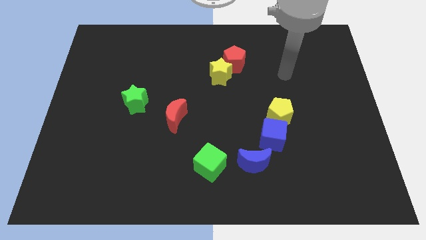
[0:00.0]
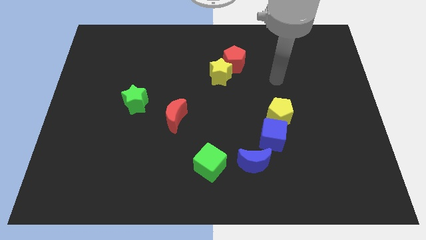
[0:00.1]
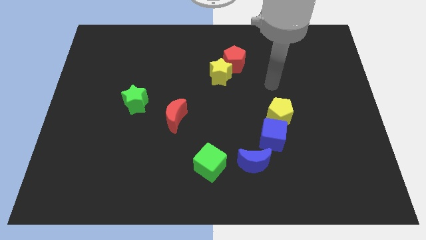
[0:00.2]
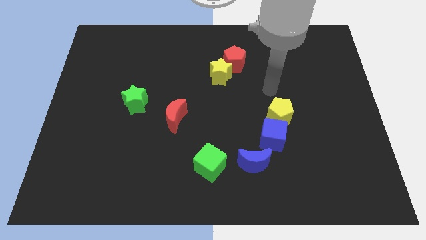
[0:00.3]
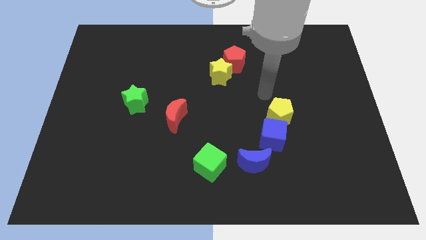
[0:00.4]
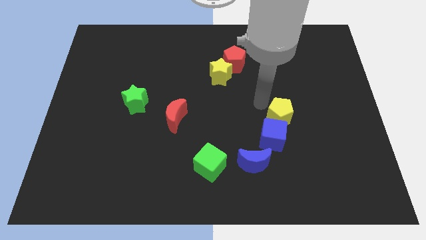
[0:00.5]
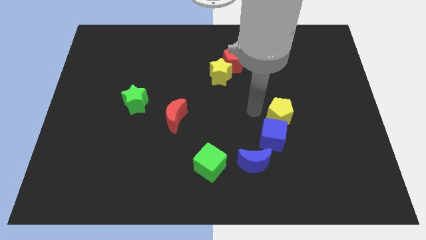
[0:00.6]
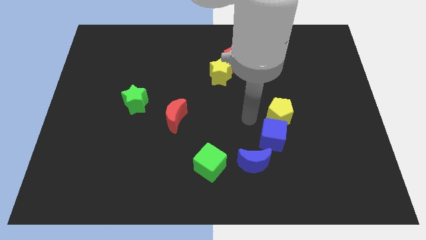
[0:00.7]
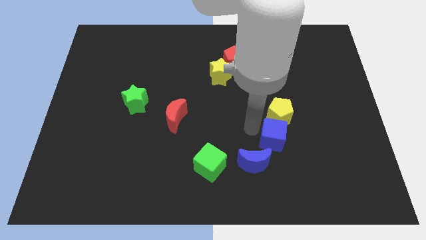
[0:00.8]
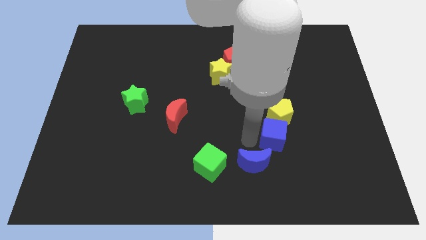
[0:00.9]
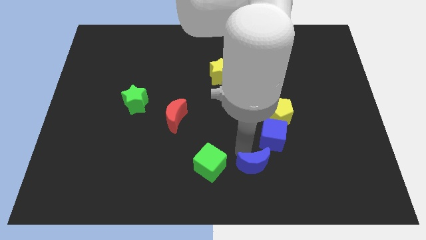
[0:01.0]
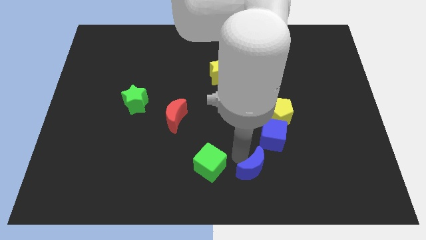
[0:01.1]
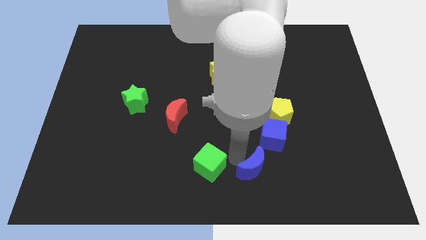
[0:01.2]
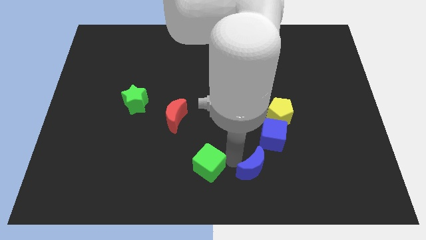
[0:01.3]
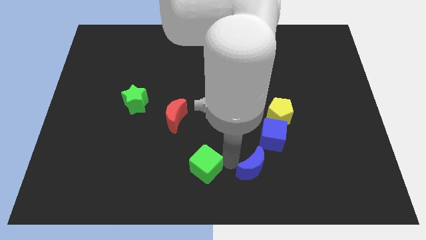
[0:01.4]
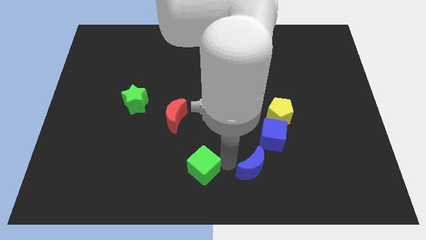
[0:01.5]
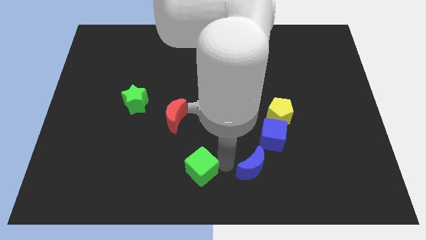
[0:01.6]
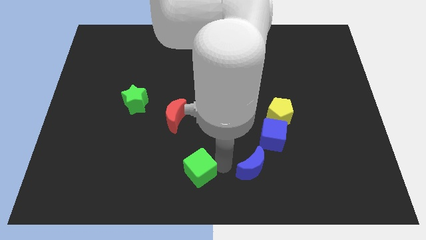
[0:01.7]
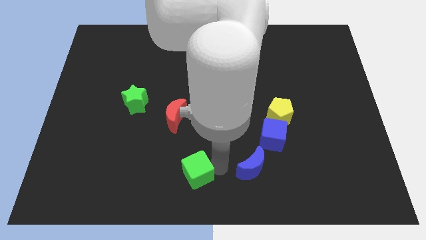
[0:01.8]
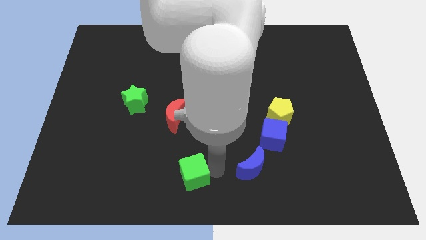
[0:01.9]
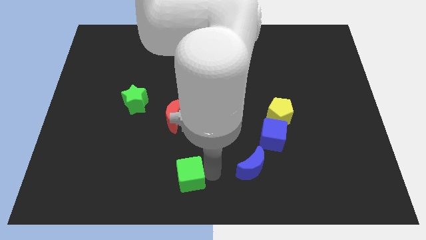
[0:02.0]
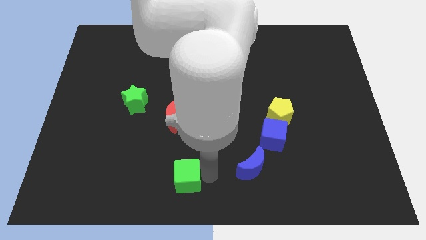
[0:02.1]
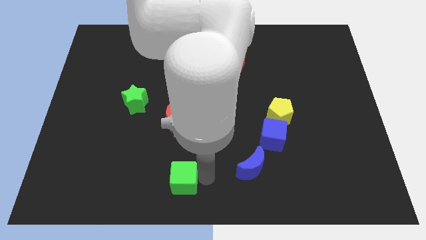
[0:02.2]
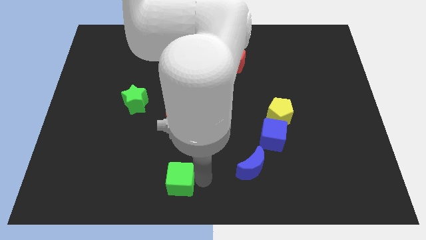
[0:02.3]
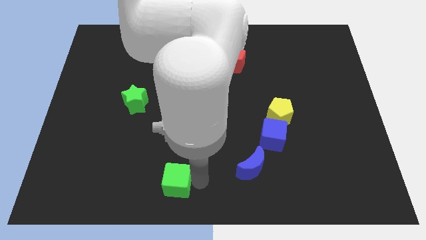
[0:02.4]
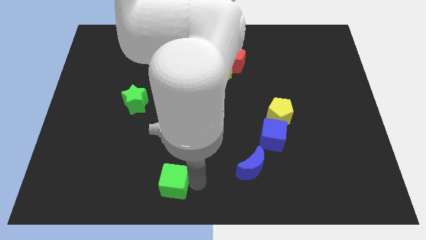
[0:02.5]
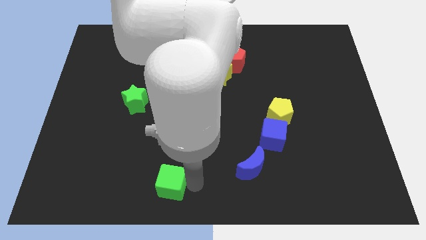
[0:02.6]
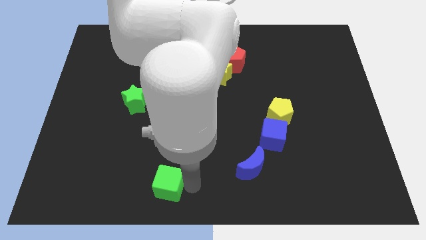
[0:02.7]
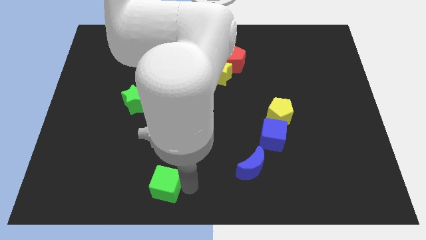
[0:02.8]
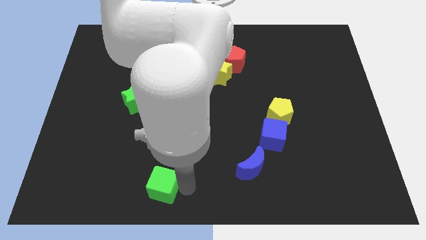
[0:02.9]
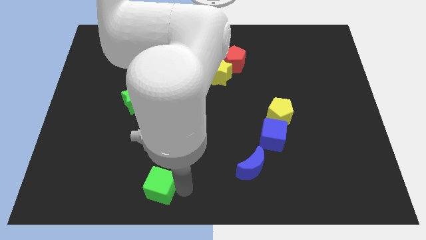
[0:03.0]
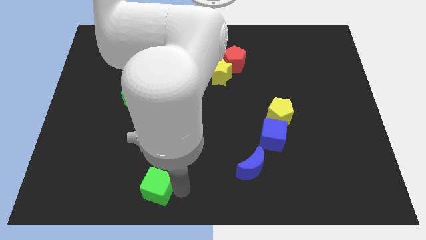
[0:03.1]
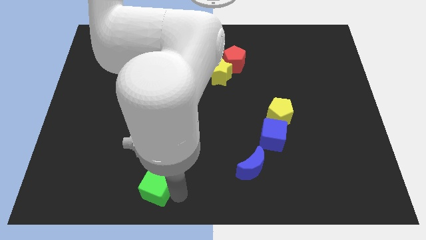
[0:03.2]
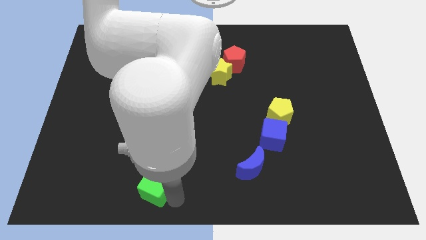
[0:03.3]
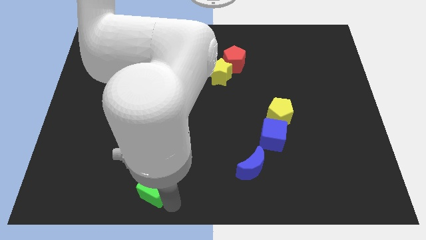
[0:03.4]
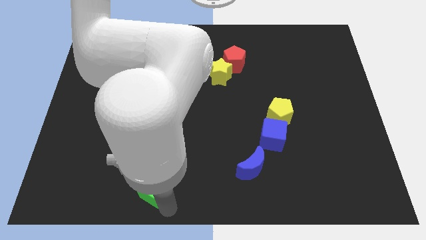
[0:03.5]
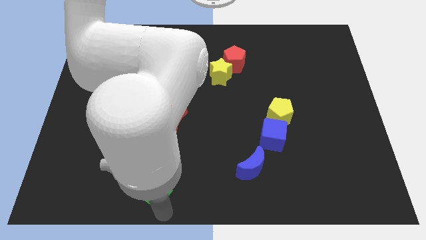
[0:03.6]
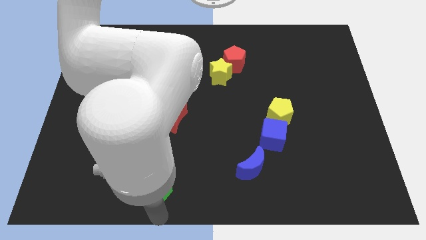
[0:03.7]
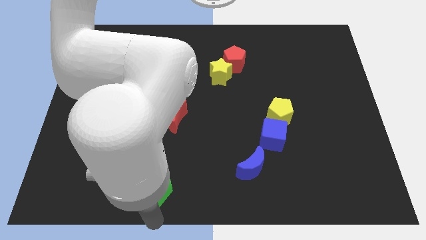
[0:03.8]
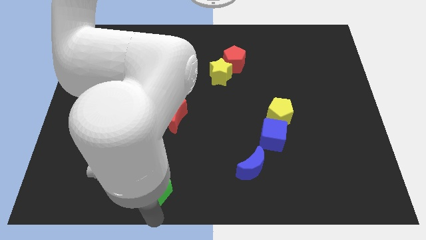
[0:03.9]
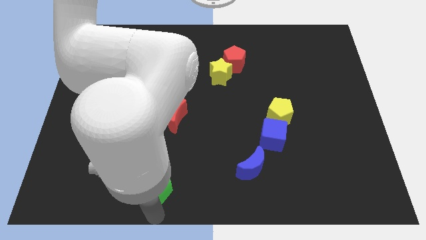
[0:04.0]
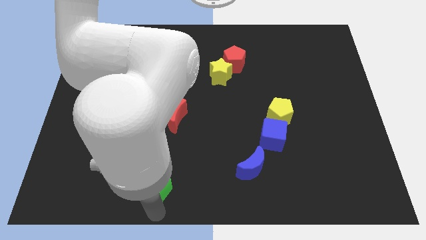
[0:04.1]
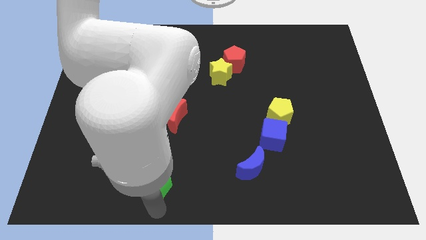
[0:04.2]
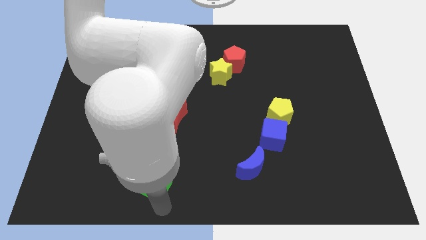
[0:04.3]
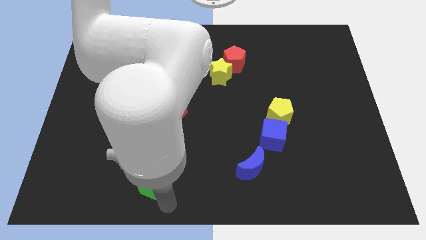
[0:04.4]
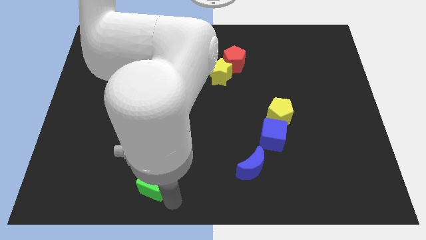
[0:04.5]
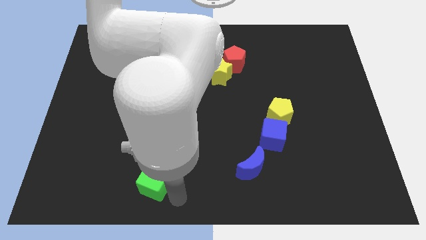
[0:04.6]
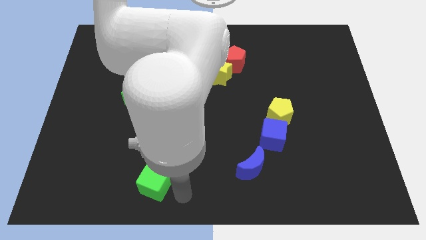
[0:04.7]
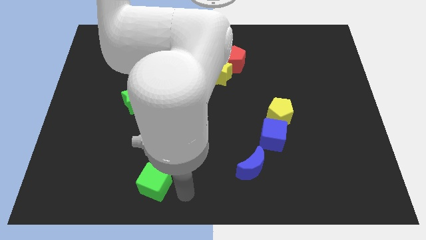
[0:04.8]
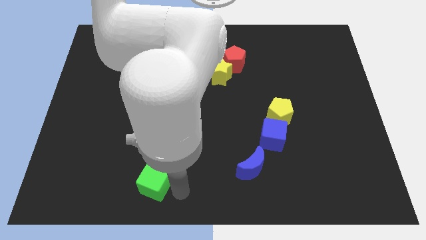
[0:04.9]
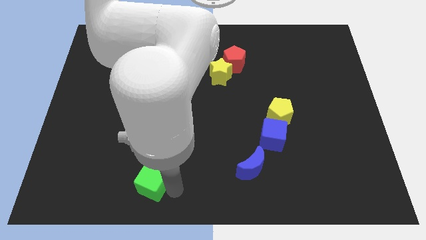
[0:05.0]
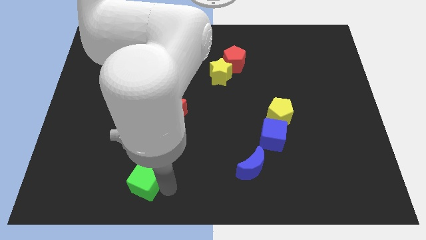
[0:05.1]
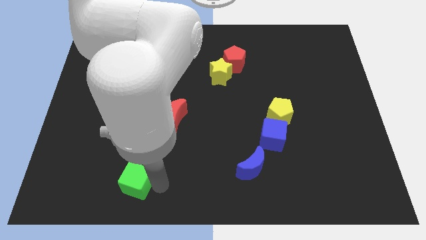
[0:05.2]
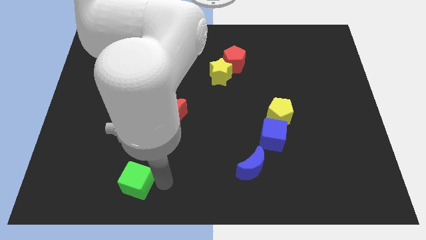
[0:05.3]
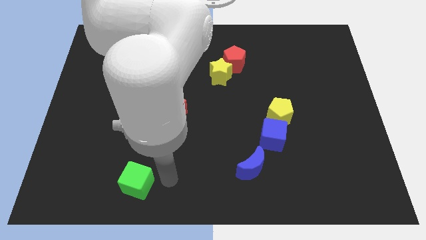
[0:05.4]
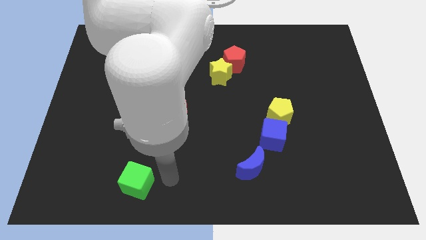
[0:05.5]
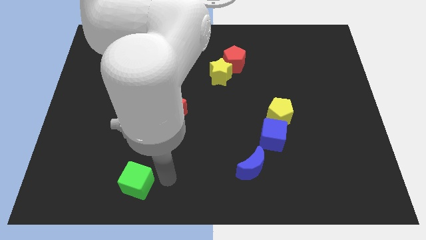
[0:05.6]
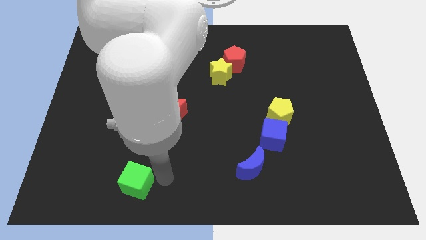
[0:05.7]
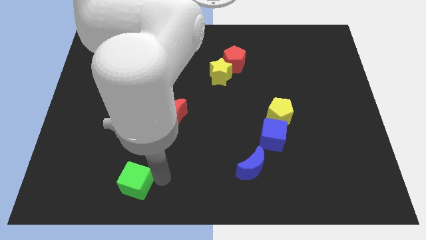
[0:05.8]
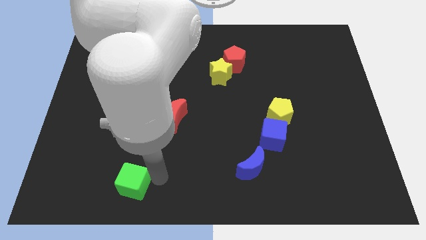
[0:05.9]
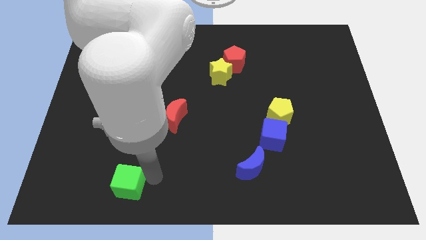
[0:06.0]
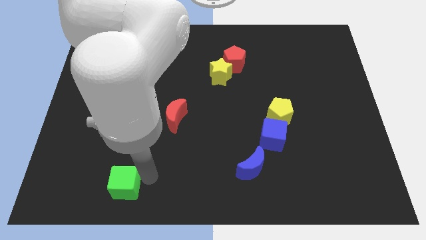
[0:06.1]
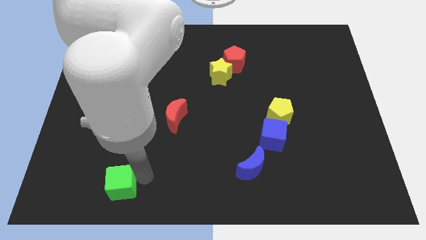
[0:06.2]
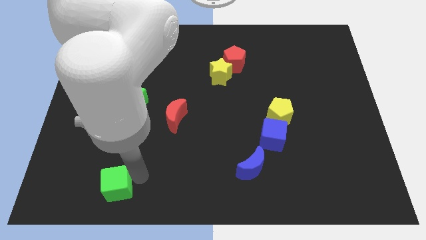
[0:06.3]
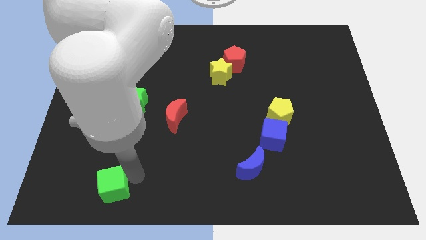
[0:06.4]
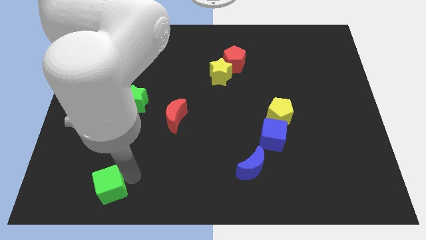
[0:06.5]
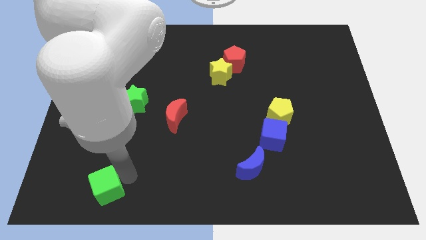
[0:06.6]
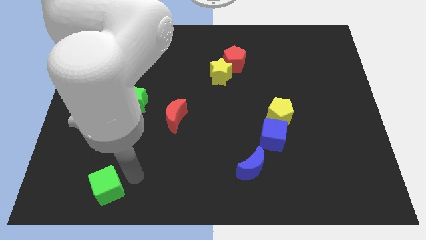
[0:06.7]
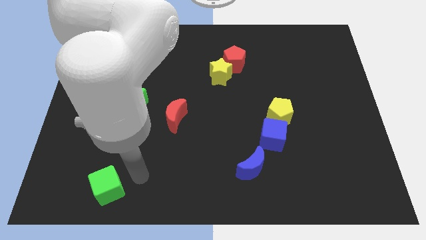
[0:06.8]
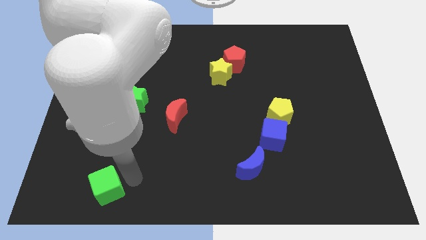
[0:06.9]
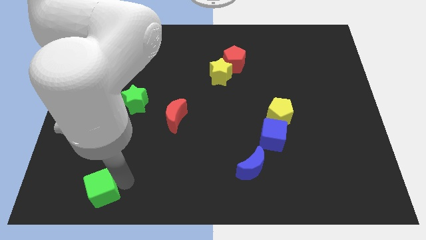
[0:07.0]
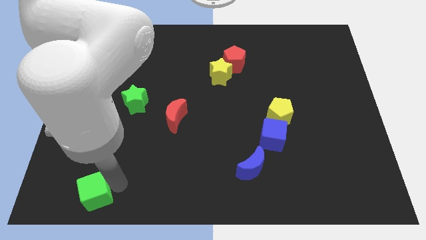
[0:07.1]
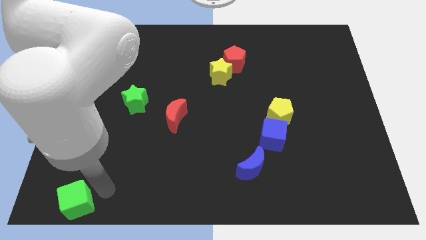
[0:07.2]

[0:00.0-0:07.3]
slide the green cube to the bottom left corner

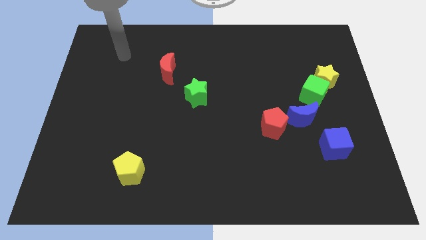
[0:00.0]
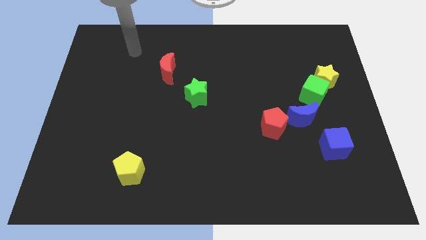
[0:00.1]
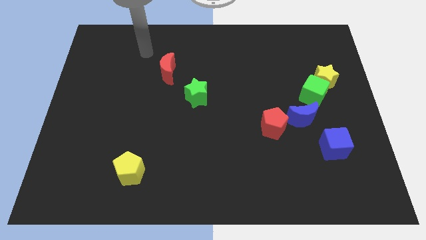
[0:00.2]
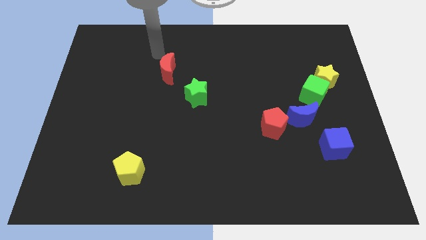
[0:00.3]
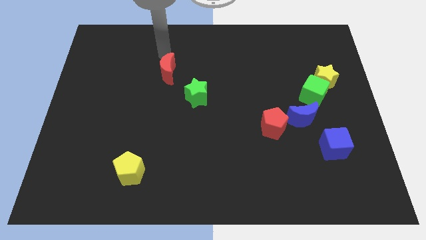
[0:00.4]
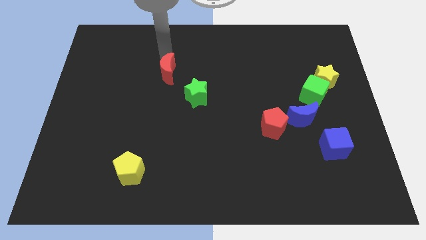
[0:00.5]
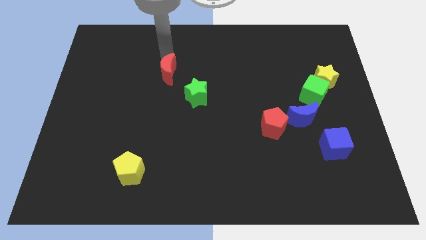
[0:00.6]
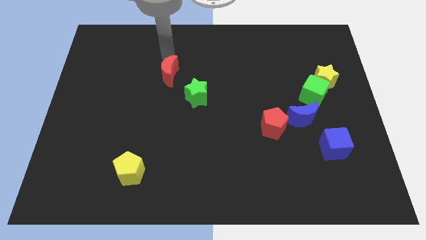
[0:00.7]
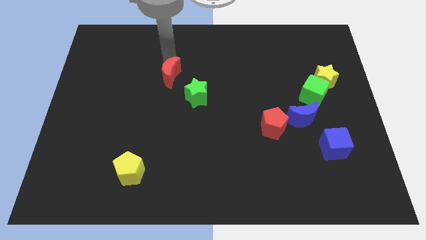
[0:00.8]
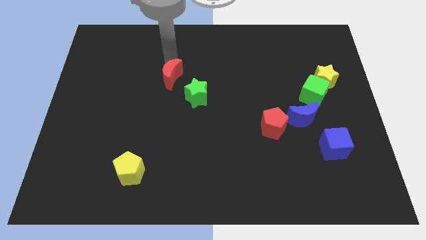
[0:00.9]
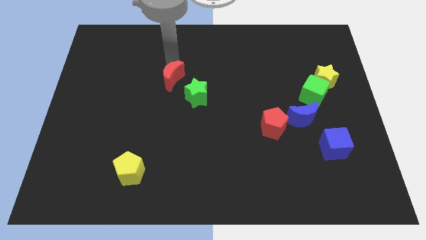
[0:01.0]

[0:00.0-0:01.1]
put the red moon to the center
